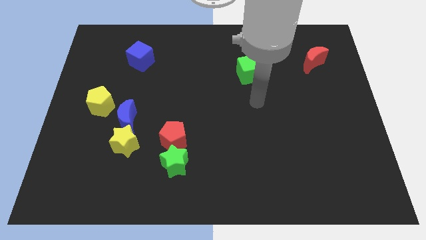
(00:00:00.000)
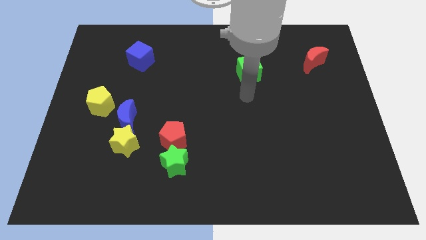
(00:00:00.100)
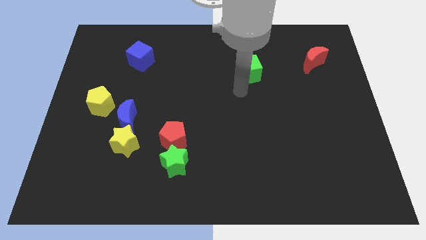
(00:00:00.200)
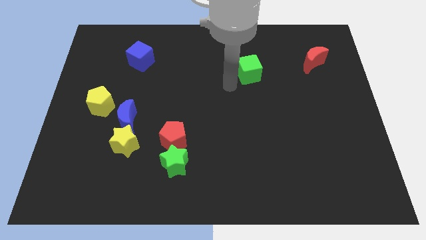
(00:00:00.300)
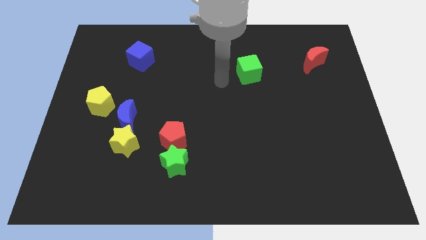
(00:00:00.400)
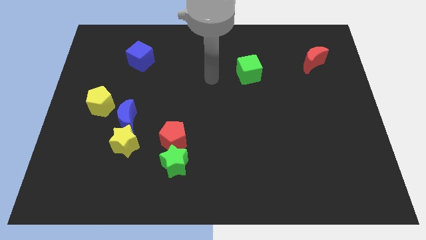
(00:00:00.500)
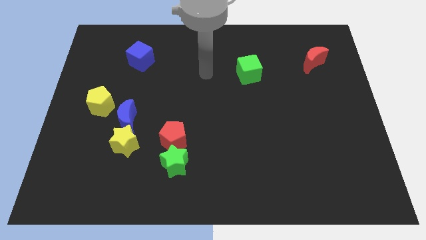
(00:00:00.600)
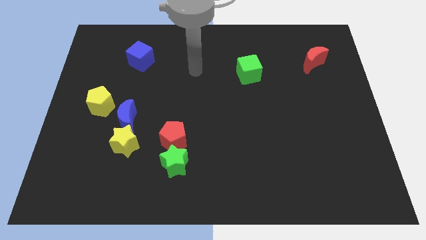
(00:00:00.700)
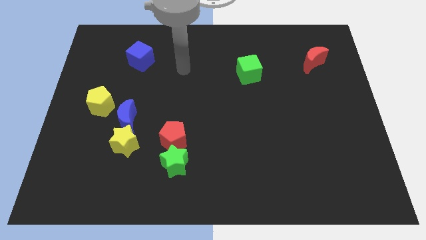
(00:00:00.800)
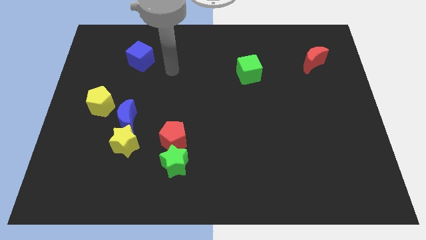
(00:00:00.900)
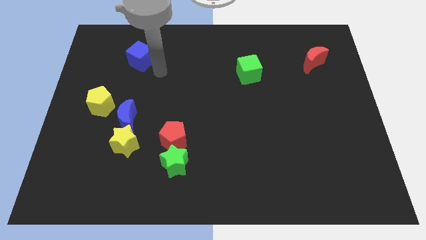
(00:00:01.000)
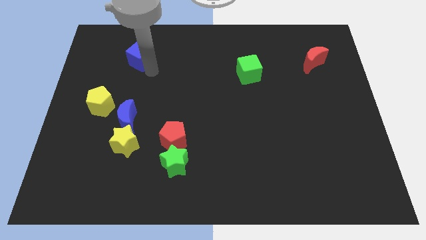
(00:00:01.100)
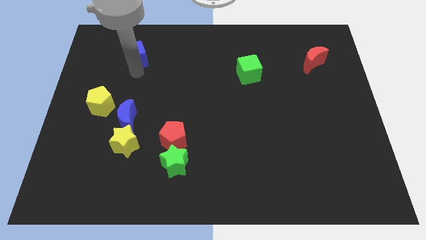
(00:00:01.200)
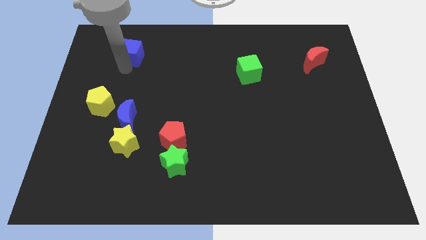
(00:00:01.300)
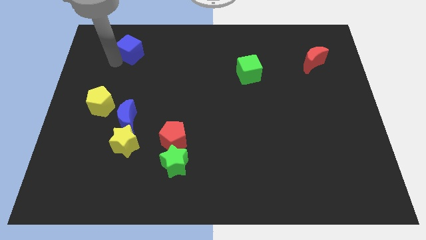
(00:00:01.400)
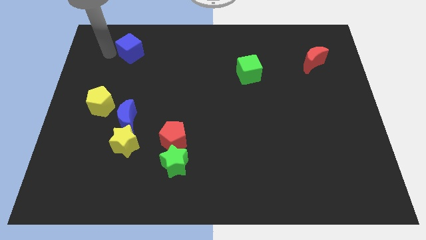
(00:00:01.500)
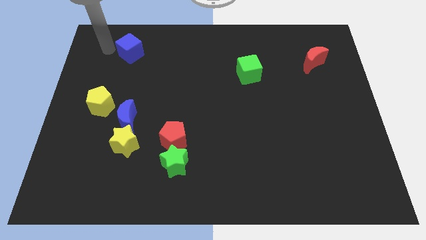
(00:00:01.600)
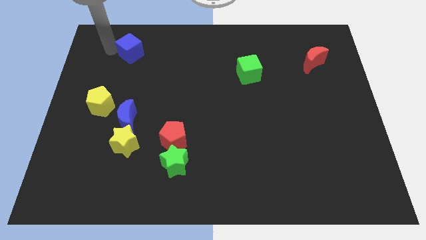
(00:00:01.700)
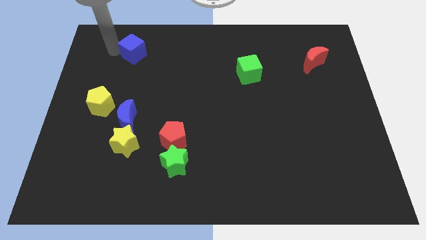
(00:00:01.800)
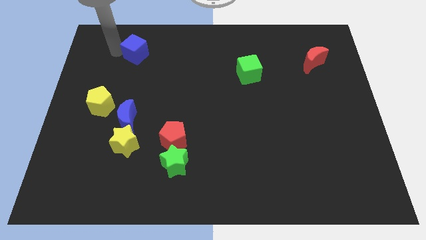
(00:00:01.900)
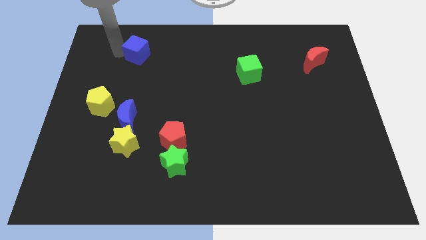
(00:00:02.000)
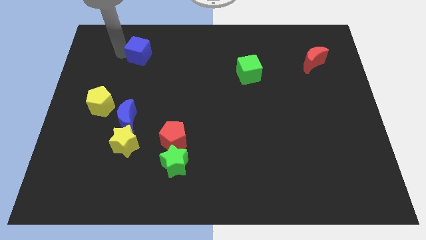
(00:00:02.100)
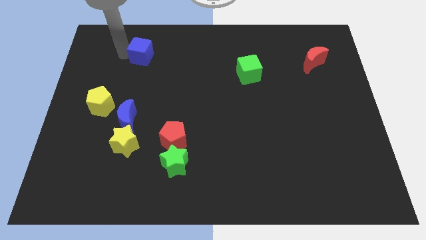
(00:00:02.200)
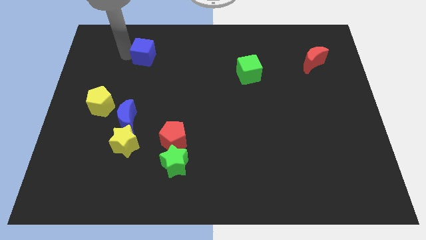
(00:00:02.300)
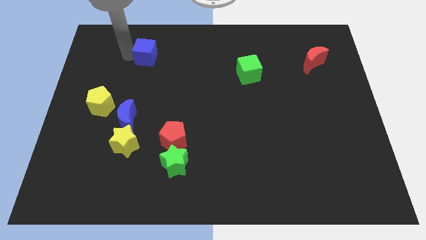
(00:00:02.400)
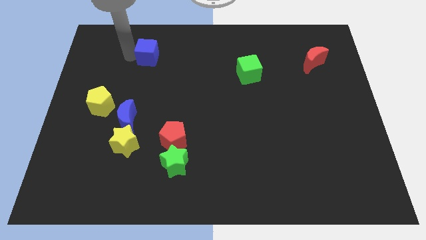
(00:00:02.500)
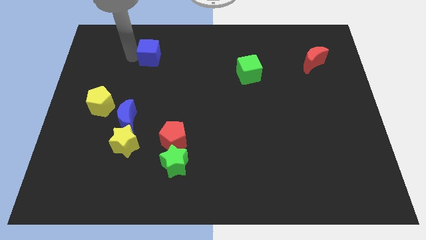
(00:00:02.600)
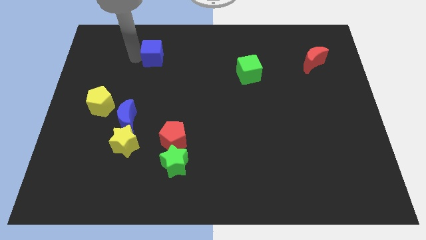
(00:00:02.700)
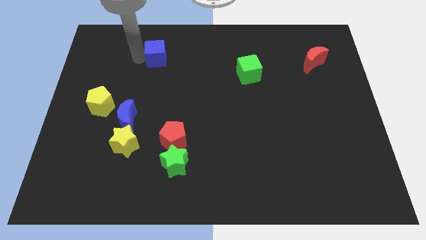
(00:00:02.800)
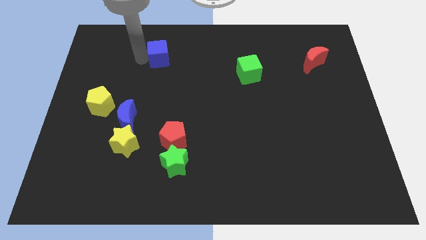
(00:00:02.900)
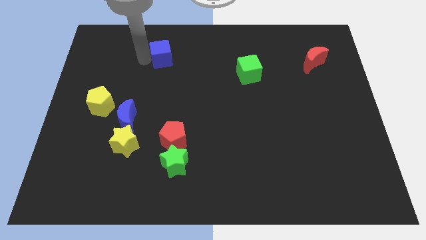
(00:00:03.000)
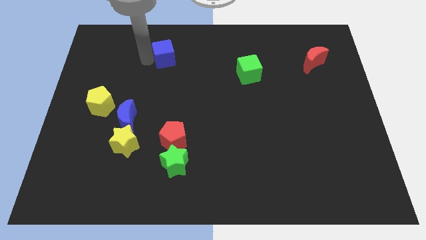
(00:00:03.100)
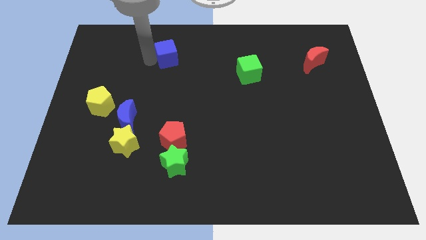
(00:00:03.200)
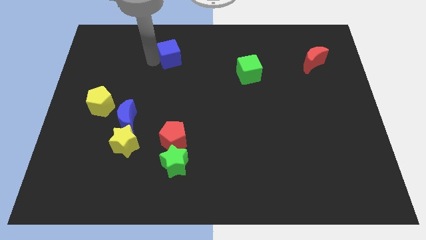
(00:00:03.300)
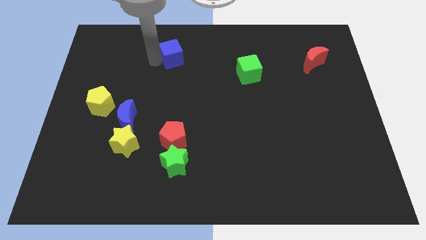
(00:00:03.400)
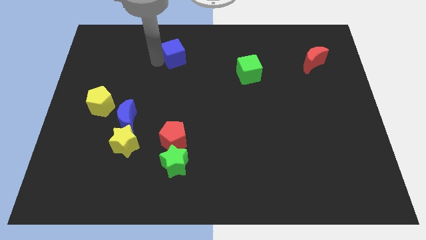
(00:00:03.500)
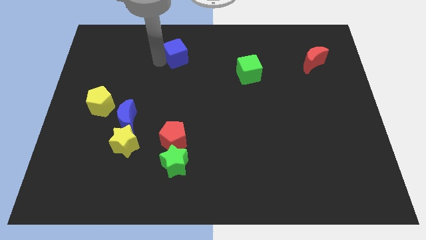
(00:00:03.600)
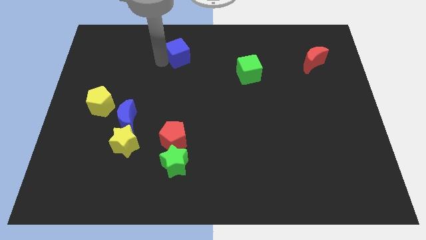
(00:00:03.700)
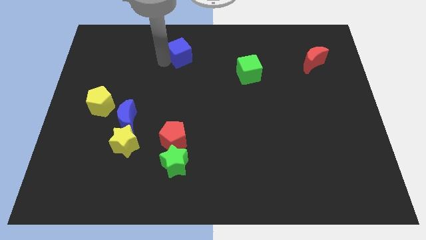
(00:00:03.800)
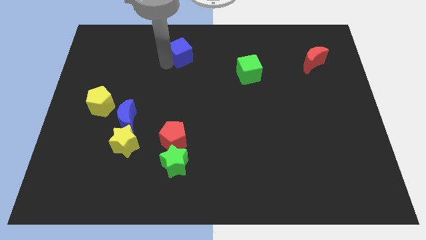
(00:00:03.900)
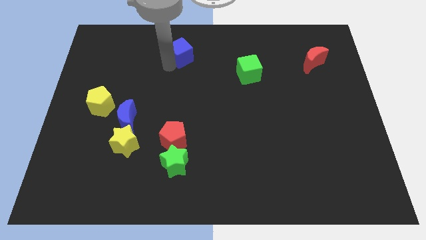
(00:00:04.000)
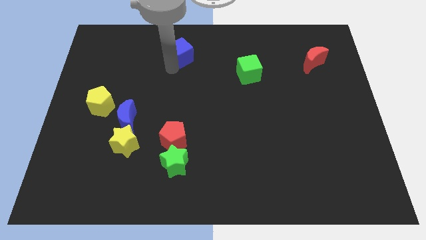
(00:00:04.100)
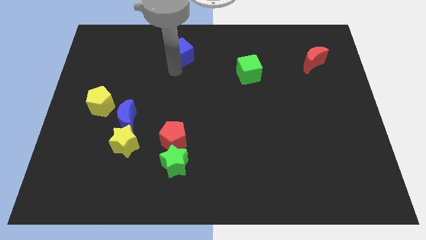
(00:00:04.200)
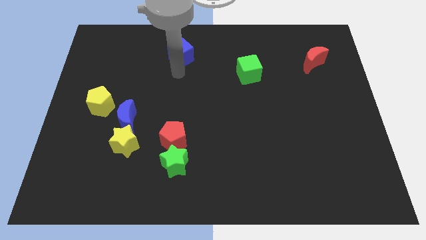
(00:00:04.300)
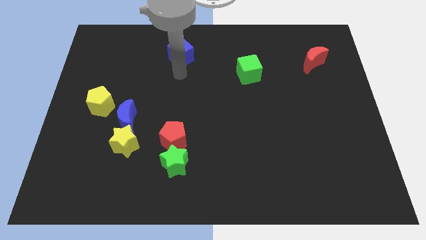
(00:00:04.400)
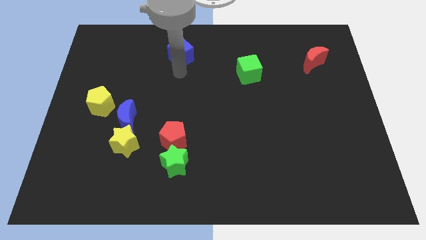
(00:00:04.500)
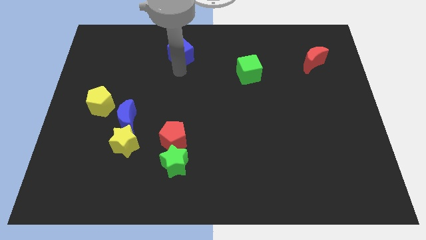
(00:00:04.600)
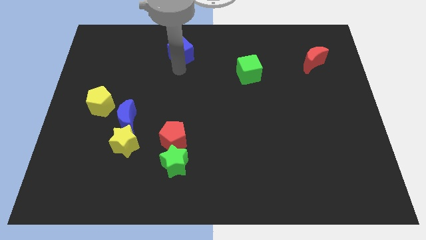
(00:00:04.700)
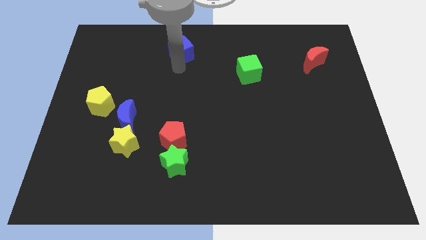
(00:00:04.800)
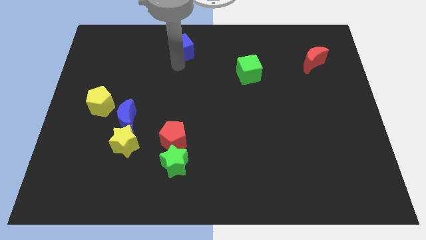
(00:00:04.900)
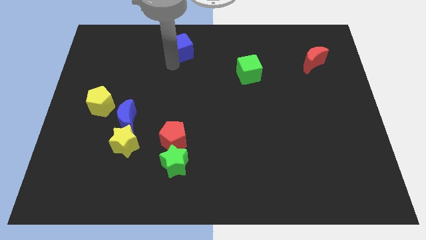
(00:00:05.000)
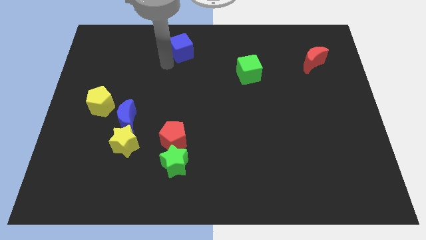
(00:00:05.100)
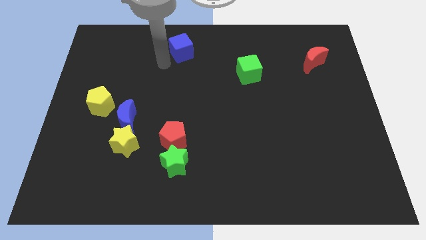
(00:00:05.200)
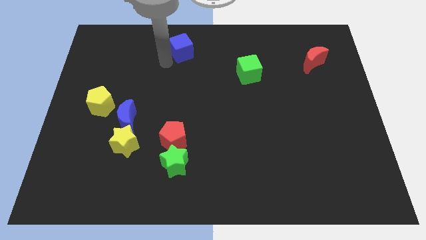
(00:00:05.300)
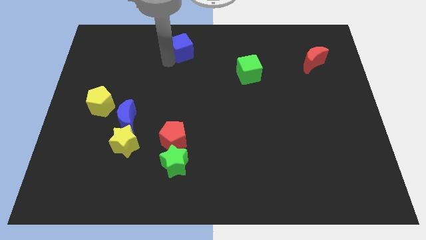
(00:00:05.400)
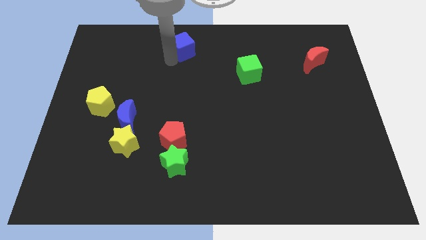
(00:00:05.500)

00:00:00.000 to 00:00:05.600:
put the blue cube to the top
